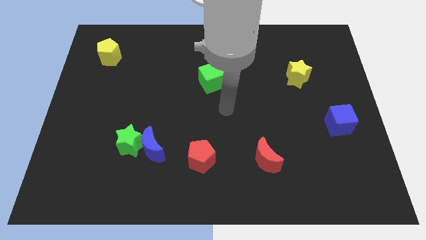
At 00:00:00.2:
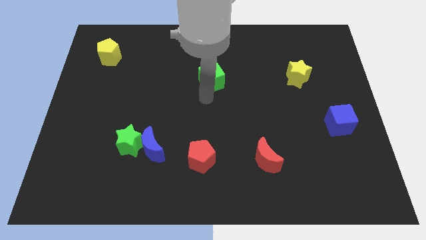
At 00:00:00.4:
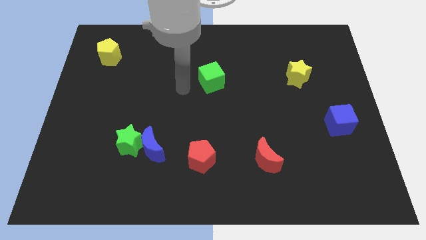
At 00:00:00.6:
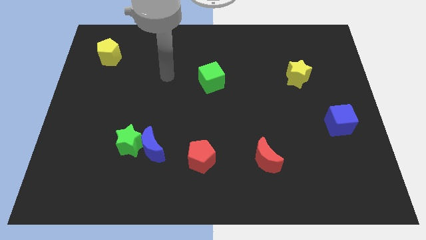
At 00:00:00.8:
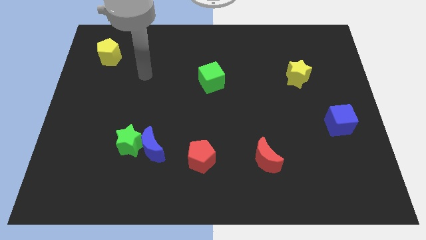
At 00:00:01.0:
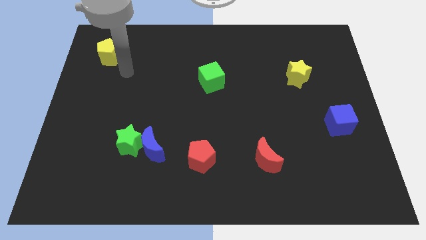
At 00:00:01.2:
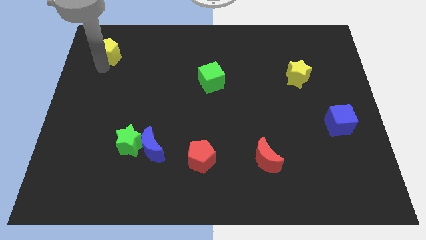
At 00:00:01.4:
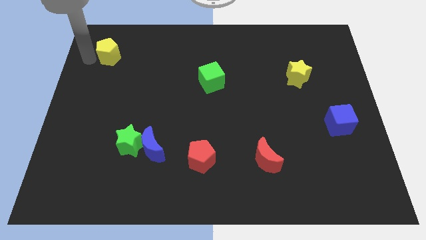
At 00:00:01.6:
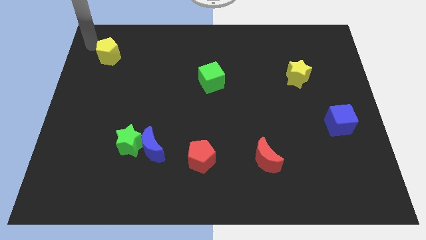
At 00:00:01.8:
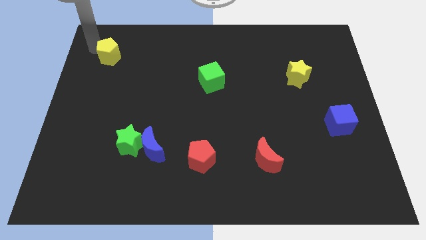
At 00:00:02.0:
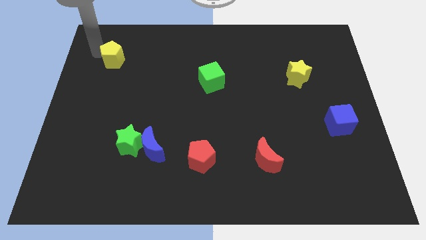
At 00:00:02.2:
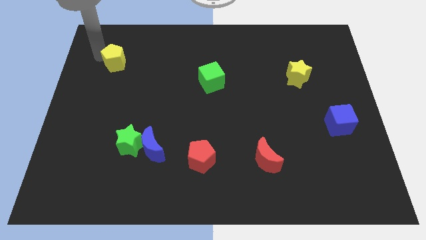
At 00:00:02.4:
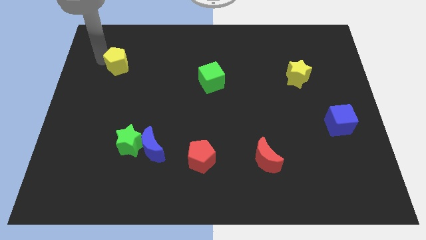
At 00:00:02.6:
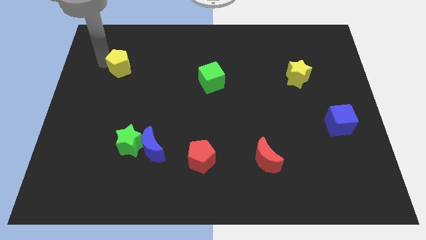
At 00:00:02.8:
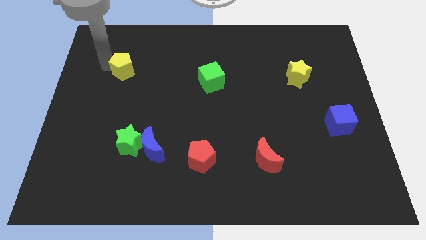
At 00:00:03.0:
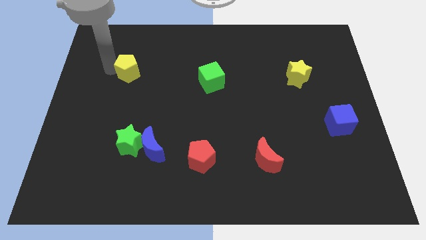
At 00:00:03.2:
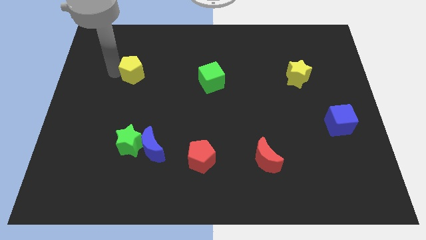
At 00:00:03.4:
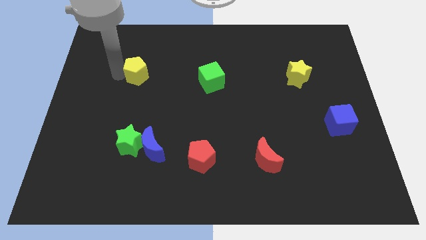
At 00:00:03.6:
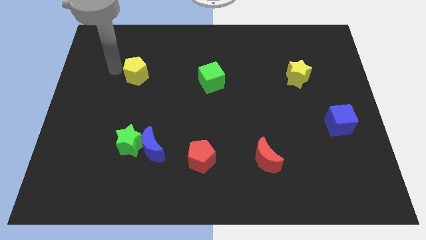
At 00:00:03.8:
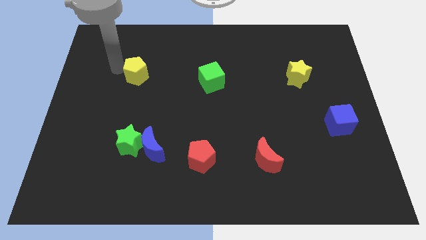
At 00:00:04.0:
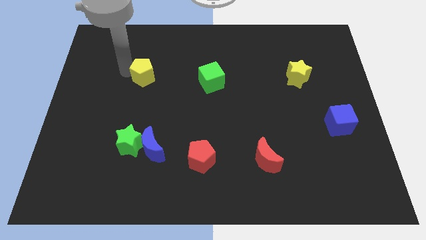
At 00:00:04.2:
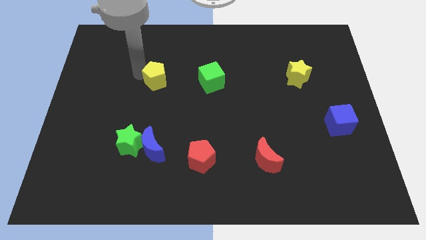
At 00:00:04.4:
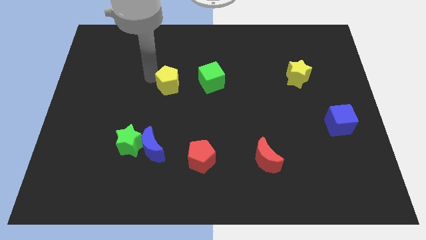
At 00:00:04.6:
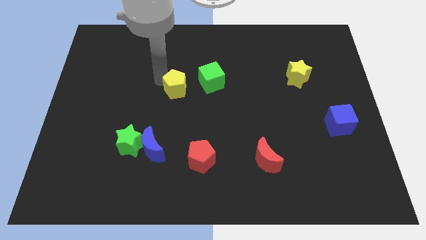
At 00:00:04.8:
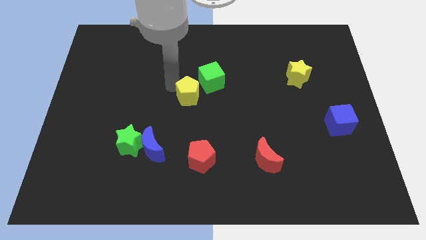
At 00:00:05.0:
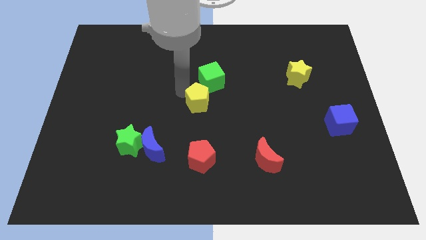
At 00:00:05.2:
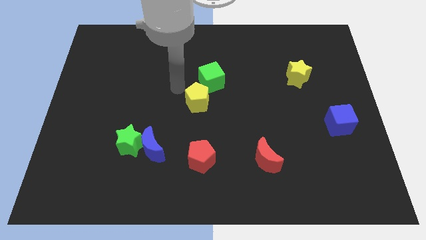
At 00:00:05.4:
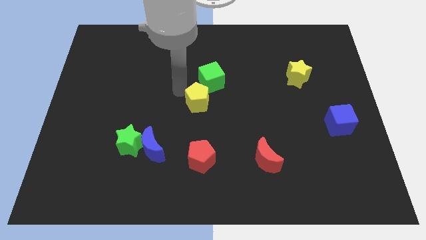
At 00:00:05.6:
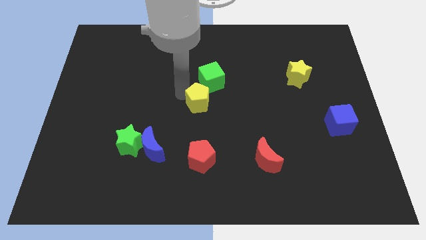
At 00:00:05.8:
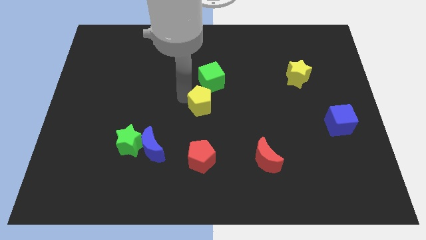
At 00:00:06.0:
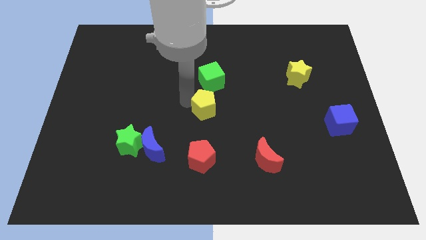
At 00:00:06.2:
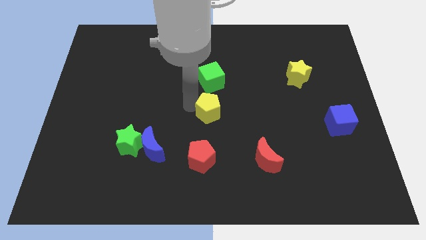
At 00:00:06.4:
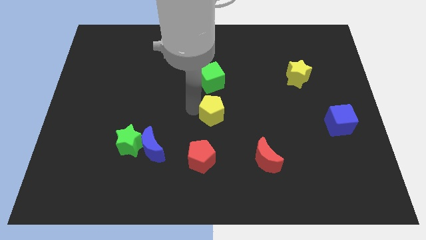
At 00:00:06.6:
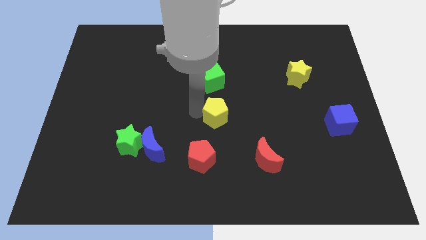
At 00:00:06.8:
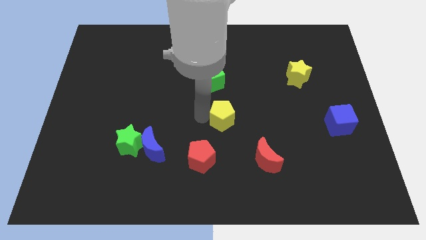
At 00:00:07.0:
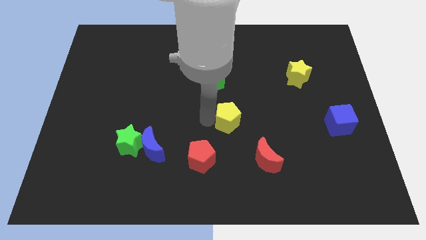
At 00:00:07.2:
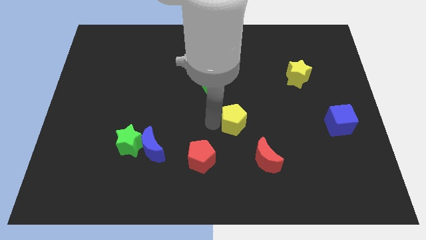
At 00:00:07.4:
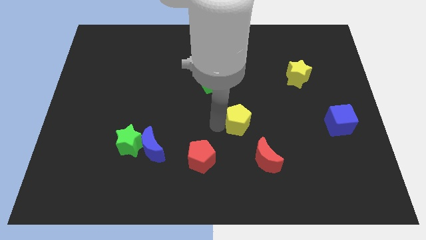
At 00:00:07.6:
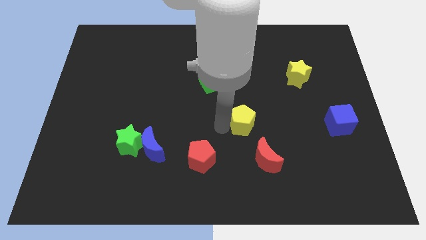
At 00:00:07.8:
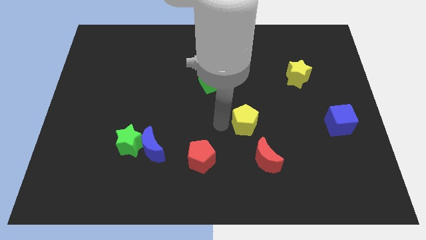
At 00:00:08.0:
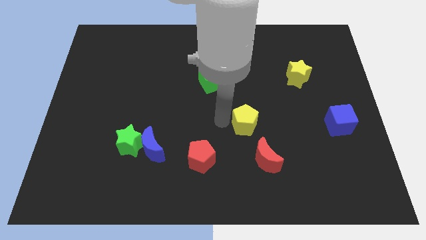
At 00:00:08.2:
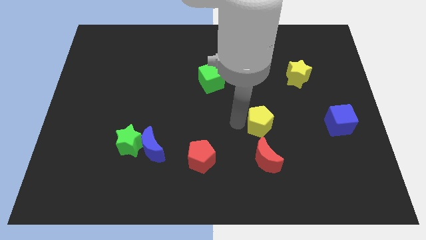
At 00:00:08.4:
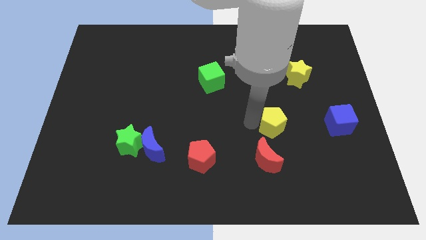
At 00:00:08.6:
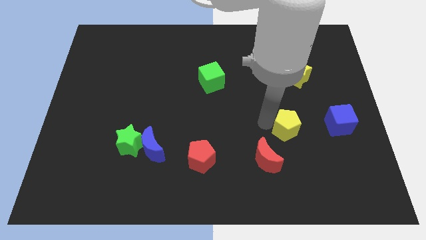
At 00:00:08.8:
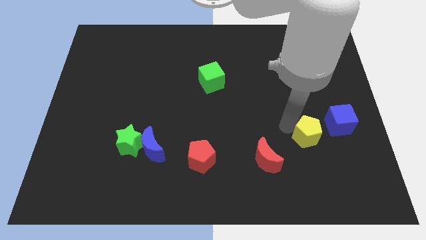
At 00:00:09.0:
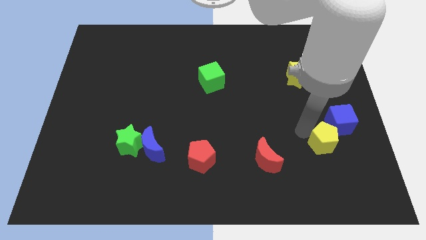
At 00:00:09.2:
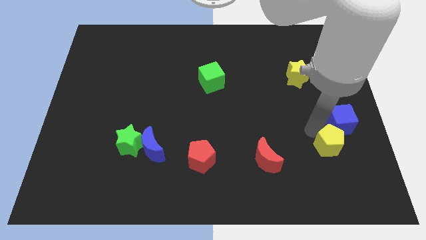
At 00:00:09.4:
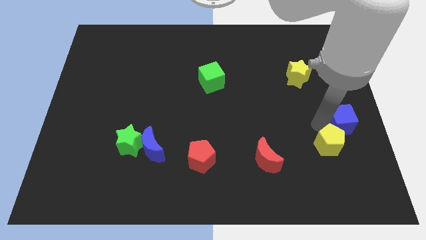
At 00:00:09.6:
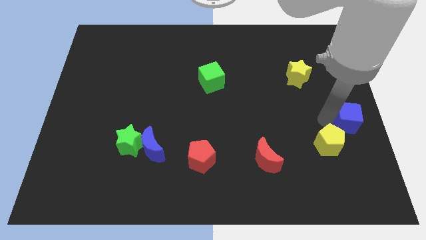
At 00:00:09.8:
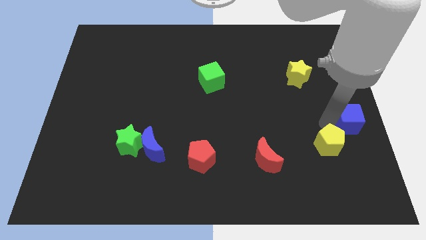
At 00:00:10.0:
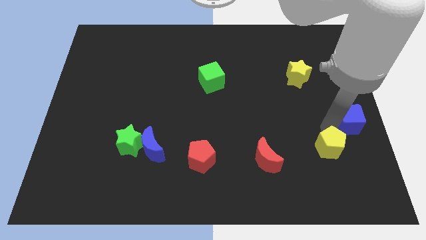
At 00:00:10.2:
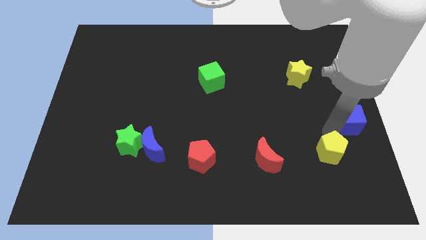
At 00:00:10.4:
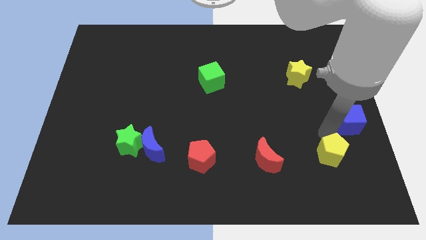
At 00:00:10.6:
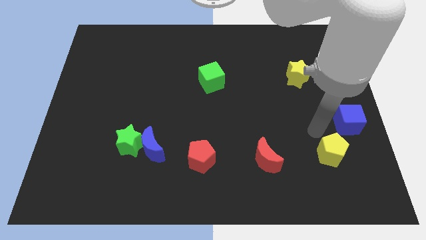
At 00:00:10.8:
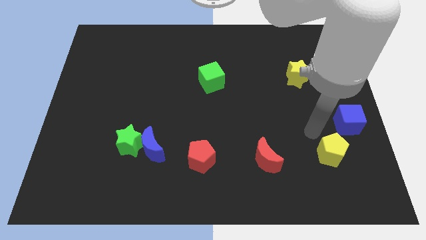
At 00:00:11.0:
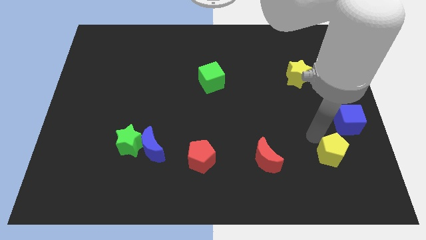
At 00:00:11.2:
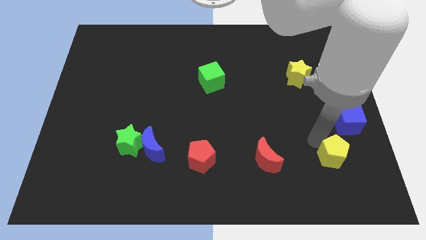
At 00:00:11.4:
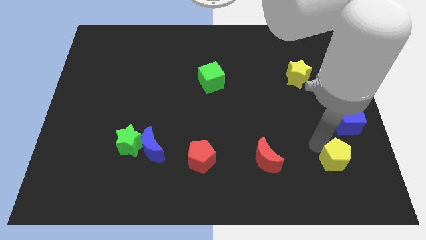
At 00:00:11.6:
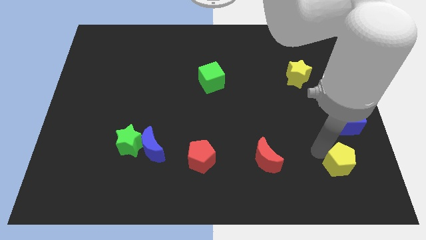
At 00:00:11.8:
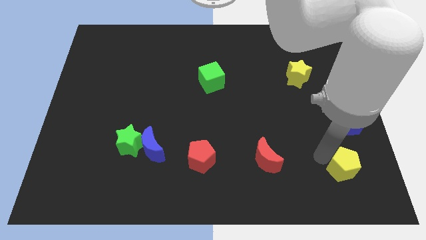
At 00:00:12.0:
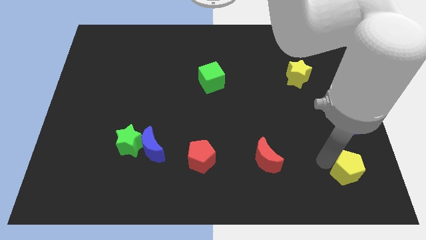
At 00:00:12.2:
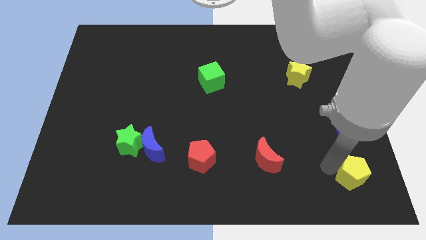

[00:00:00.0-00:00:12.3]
put the yellow pentagon to the bottom right corner

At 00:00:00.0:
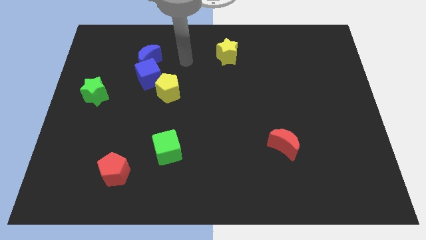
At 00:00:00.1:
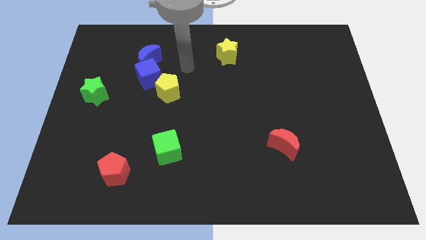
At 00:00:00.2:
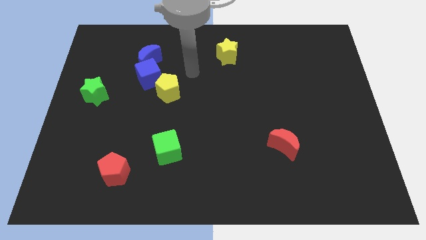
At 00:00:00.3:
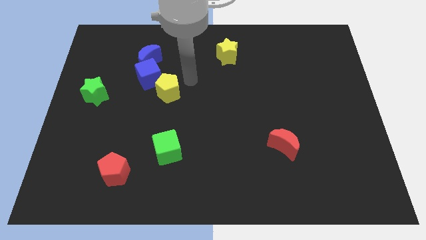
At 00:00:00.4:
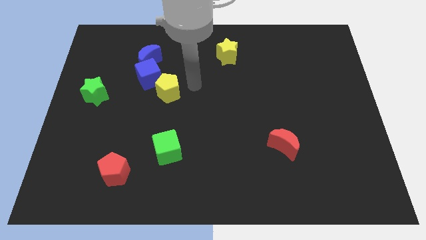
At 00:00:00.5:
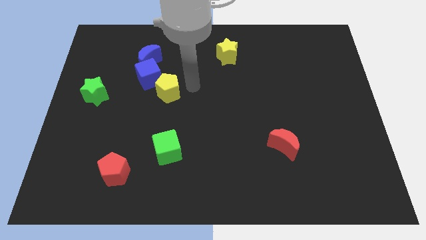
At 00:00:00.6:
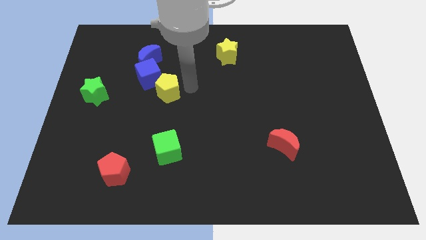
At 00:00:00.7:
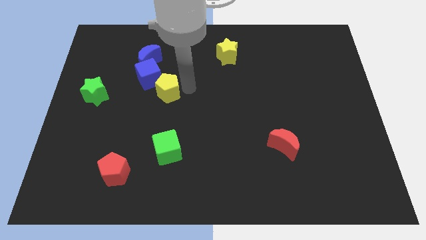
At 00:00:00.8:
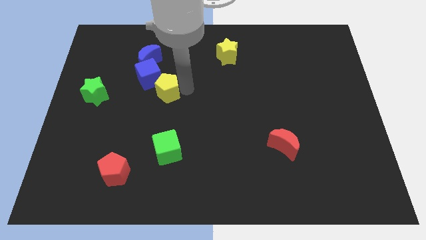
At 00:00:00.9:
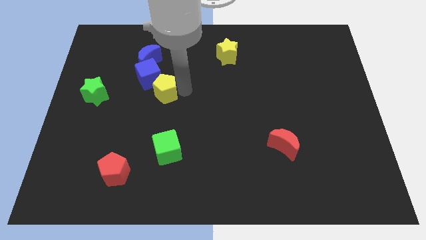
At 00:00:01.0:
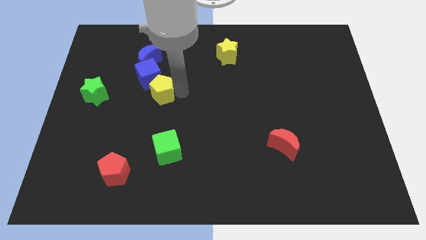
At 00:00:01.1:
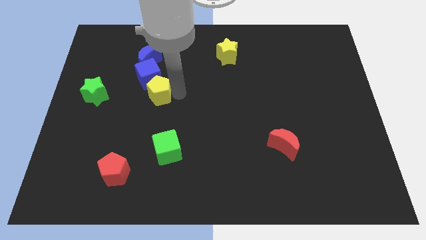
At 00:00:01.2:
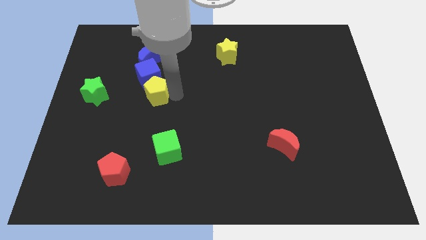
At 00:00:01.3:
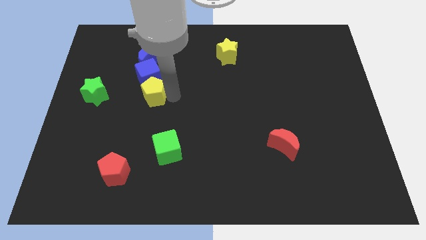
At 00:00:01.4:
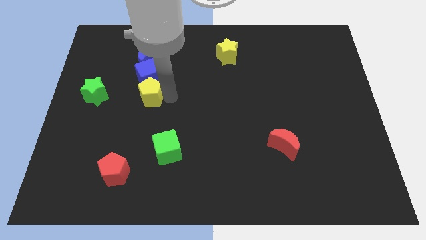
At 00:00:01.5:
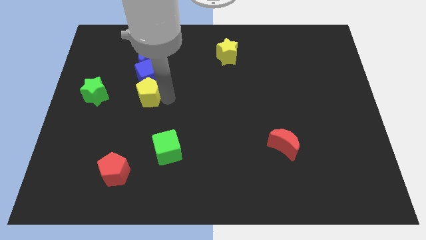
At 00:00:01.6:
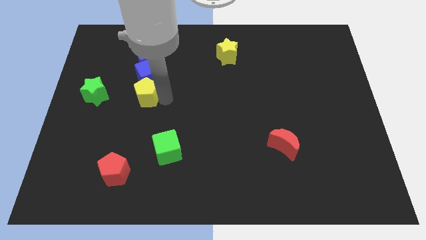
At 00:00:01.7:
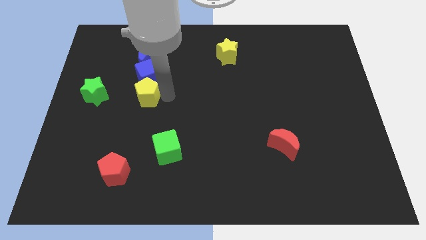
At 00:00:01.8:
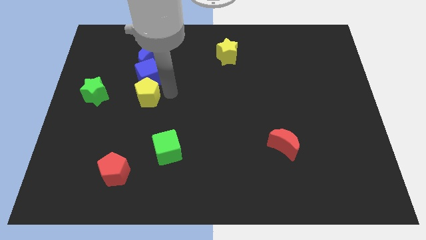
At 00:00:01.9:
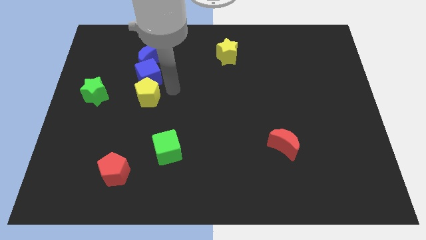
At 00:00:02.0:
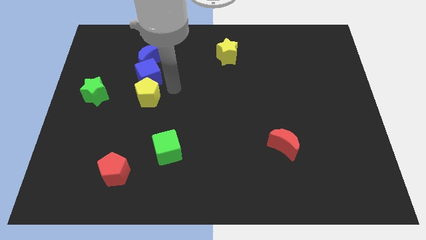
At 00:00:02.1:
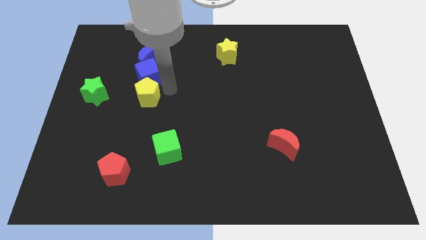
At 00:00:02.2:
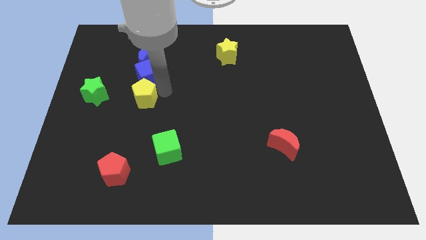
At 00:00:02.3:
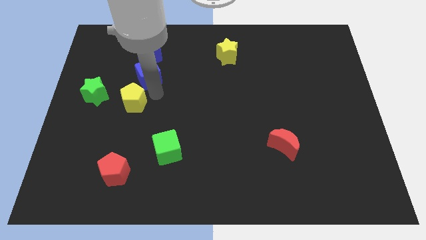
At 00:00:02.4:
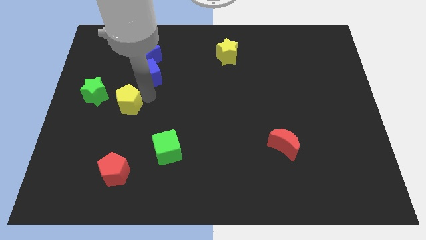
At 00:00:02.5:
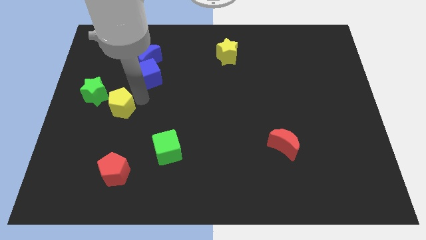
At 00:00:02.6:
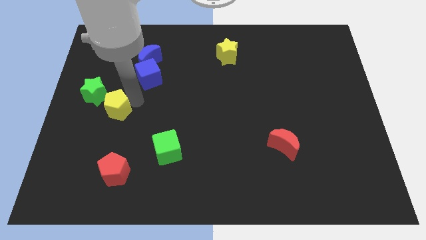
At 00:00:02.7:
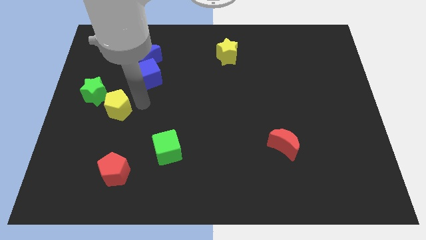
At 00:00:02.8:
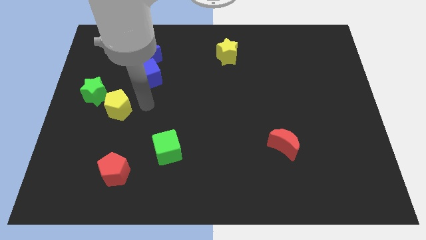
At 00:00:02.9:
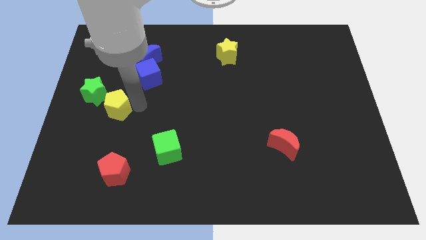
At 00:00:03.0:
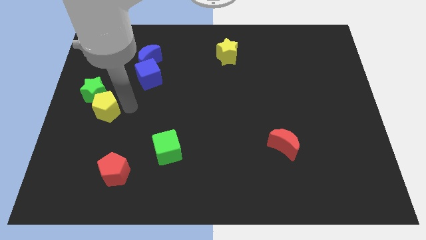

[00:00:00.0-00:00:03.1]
move the yellow pentagon to the center left
